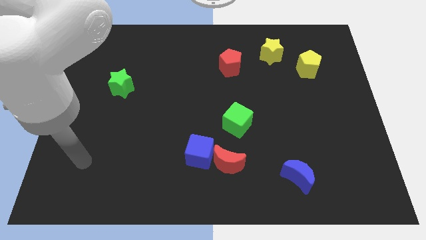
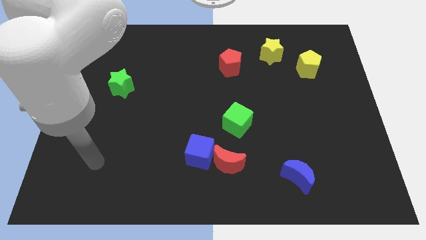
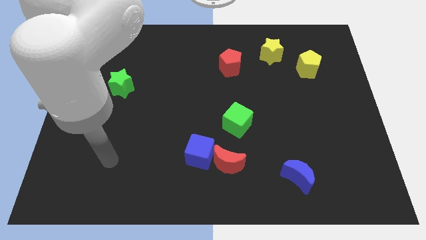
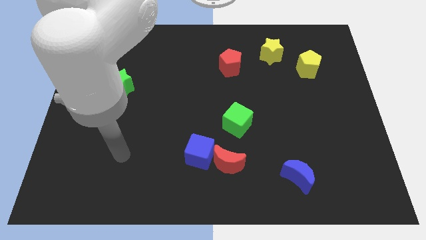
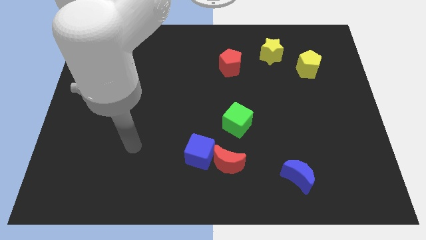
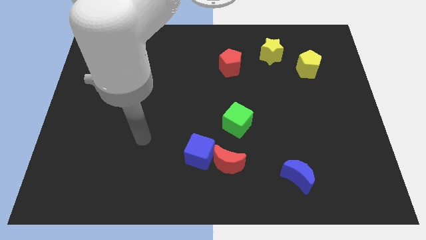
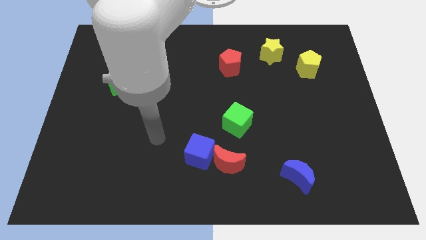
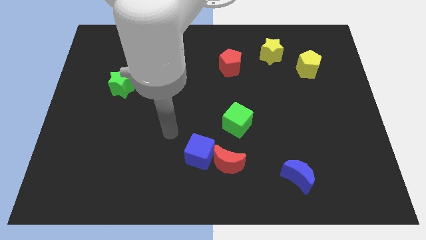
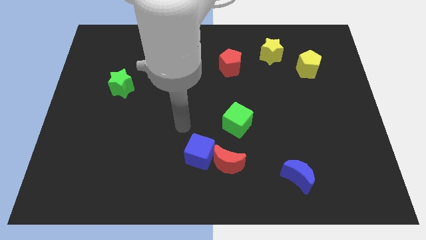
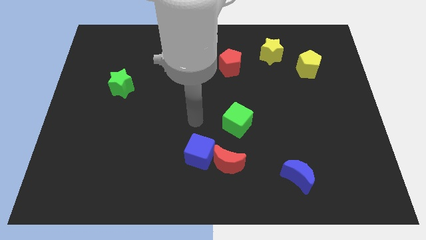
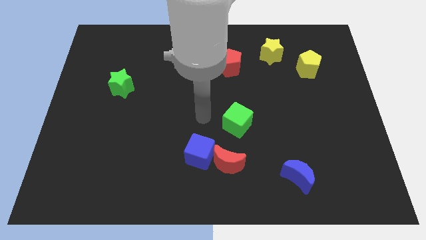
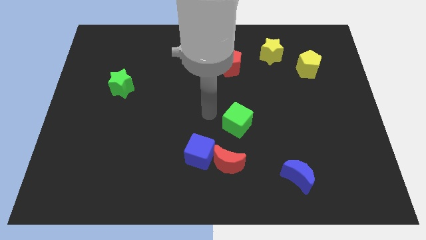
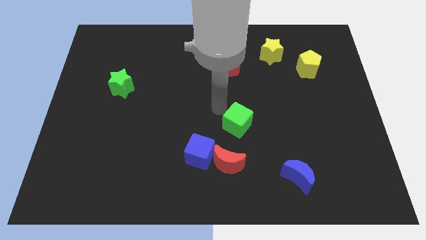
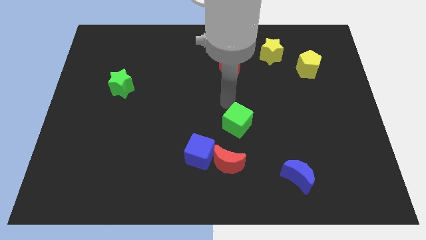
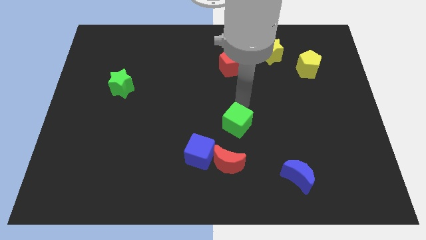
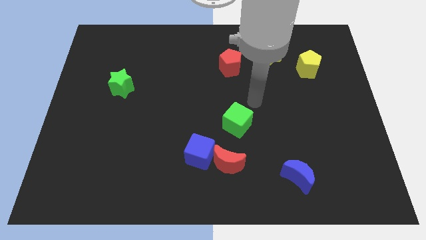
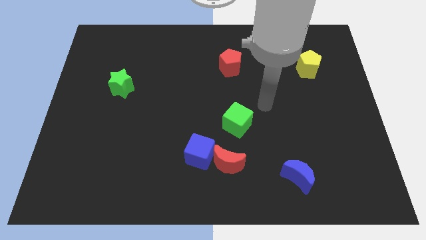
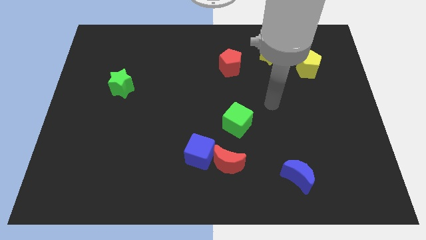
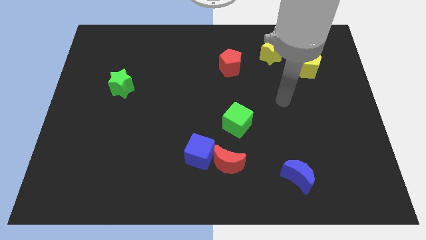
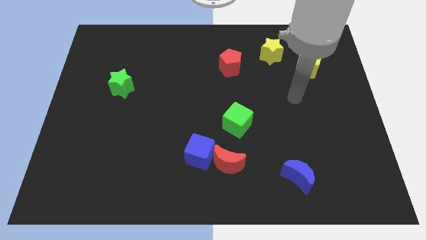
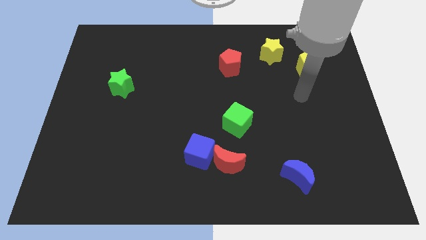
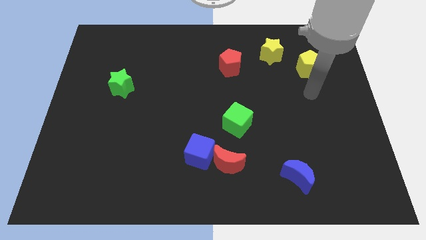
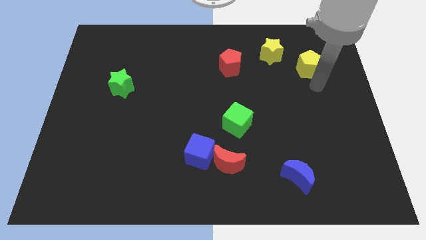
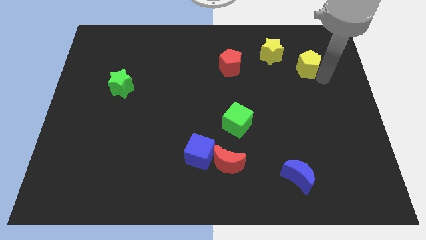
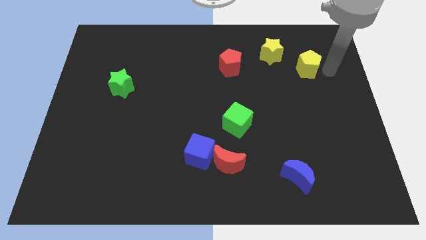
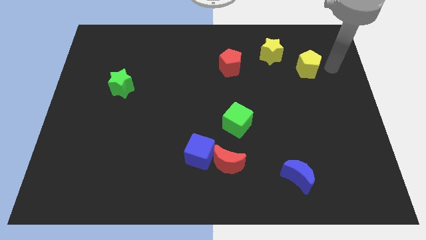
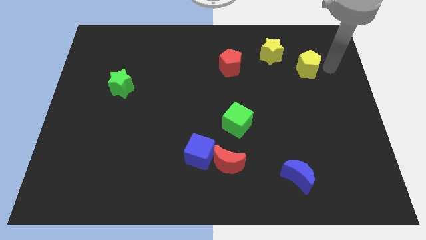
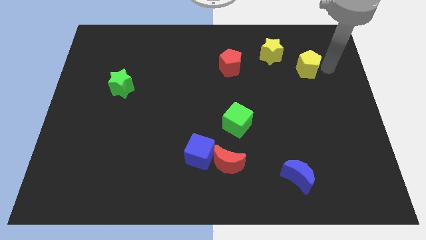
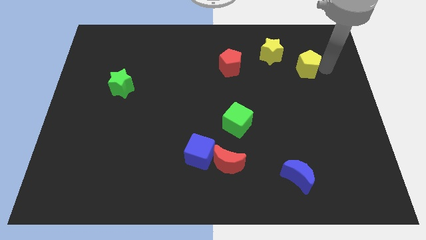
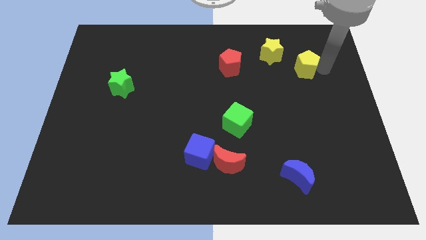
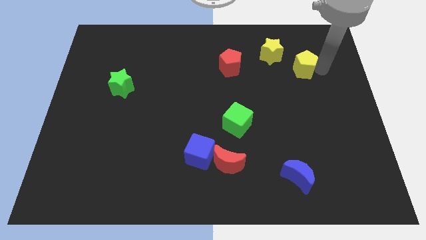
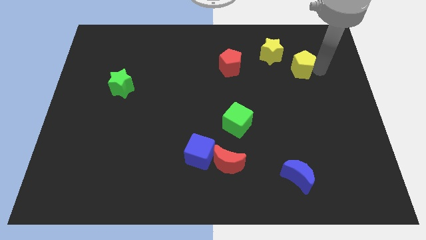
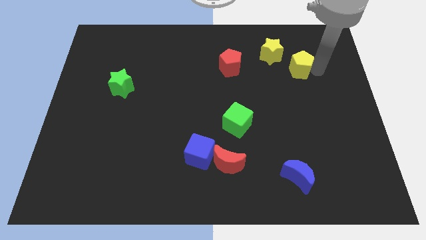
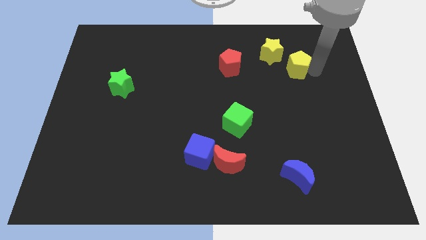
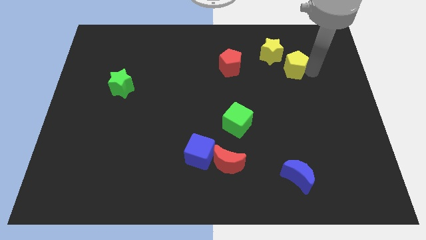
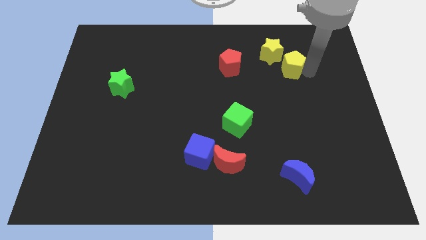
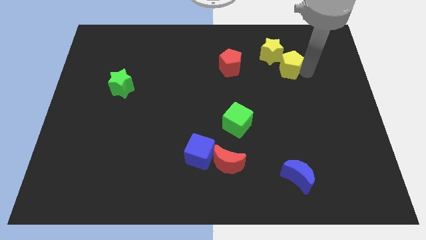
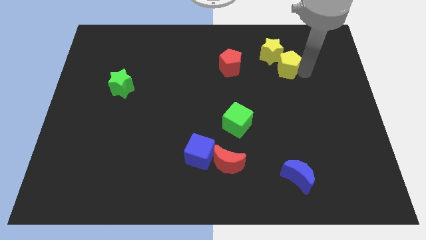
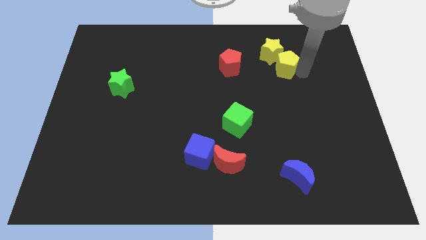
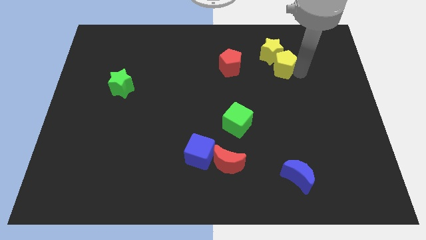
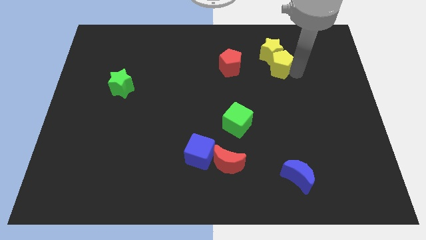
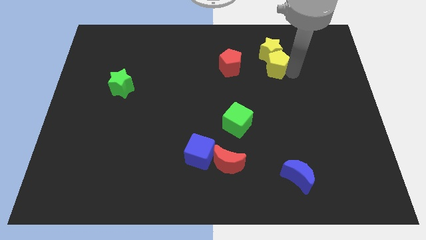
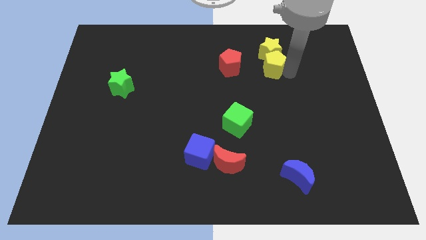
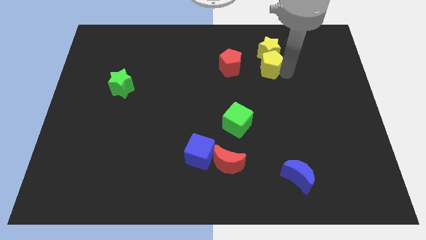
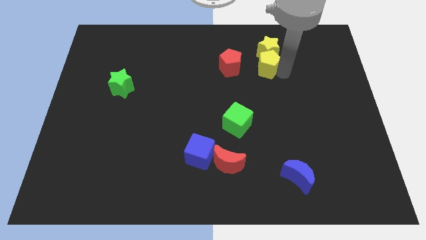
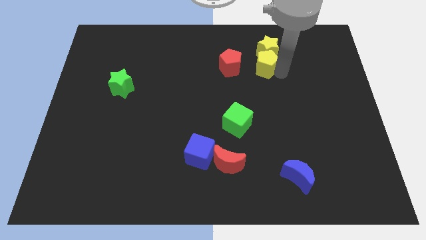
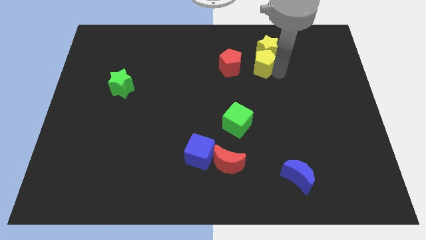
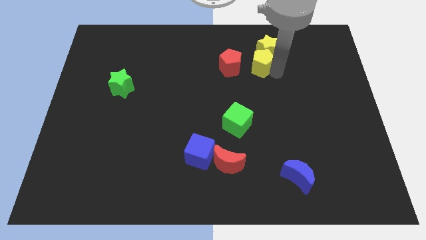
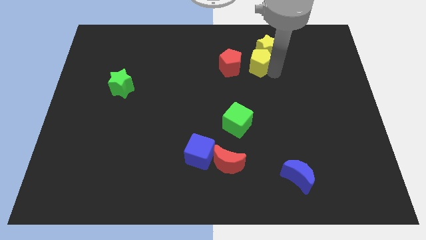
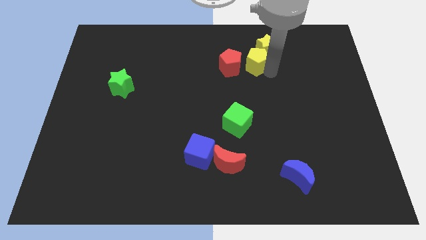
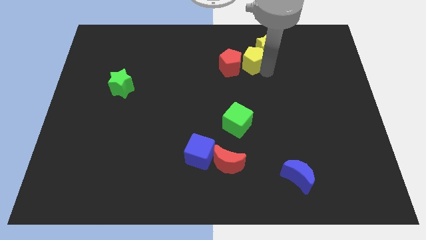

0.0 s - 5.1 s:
move the yellow pentagon left of the yellow star

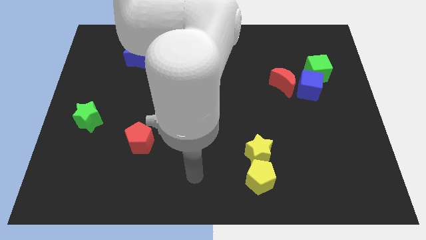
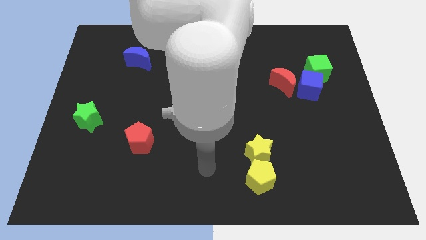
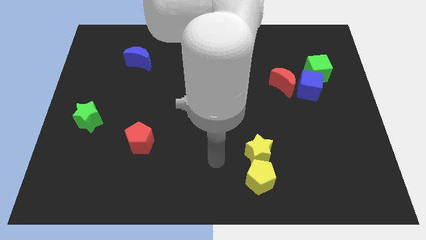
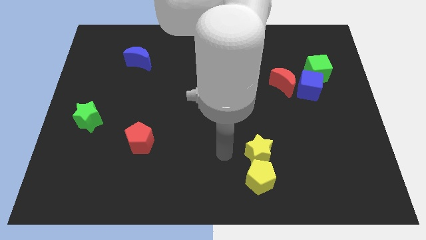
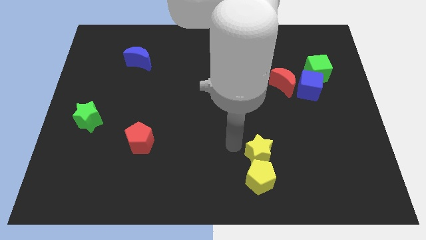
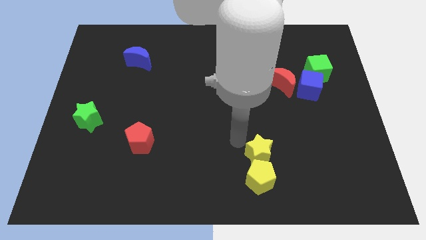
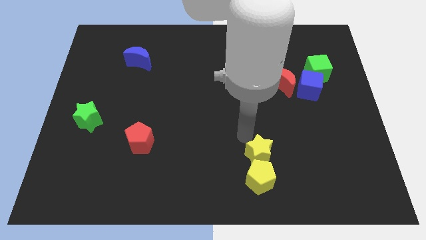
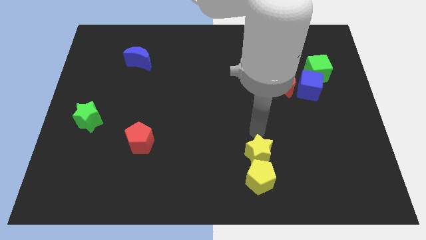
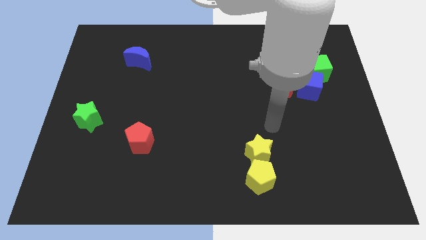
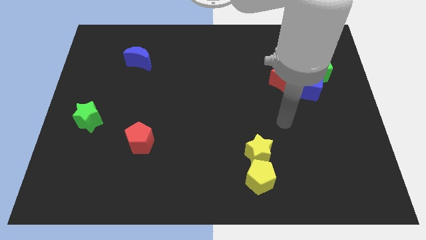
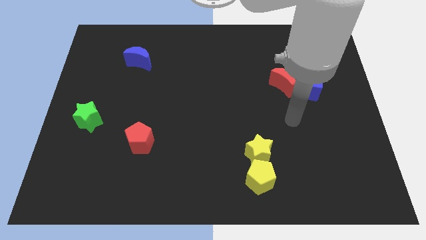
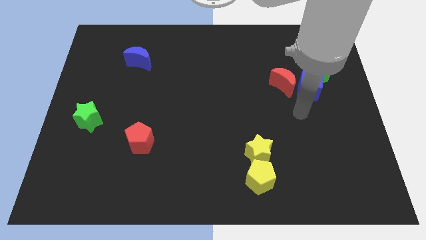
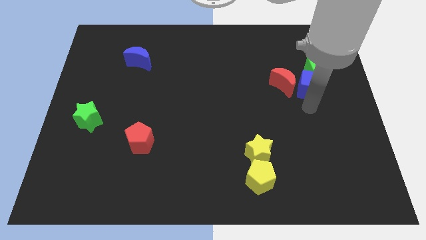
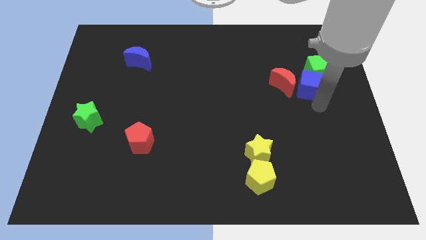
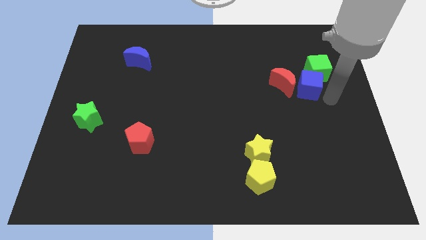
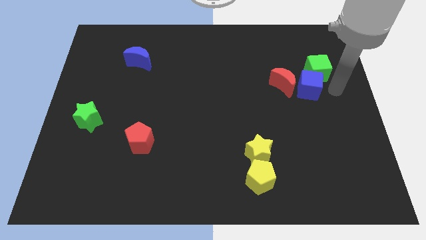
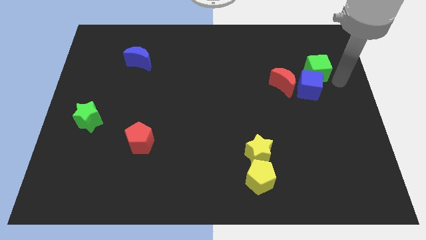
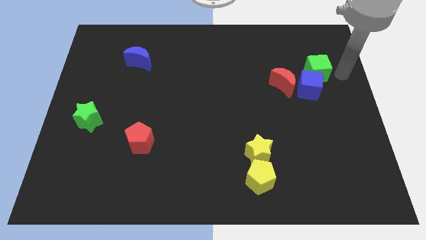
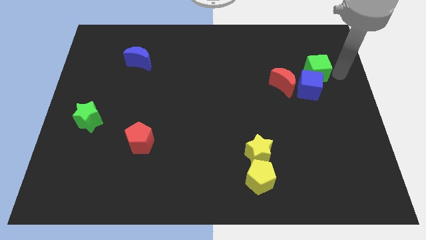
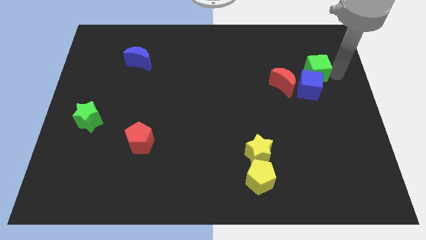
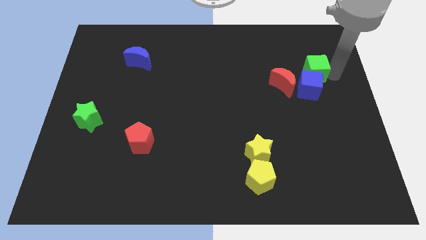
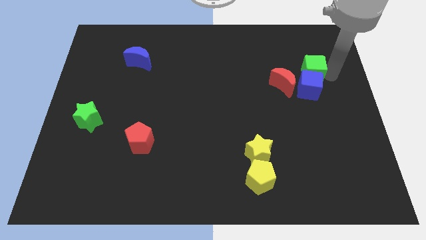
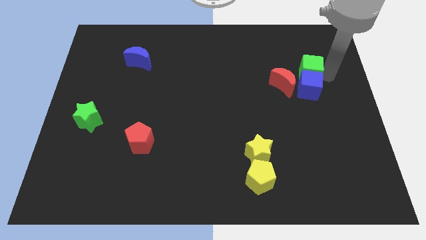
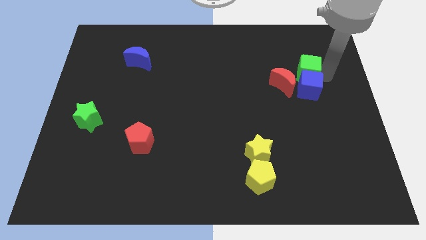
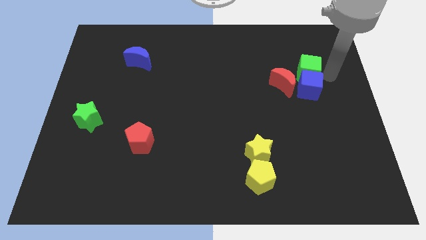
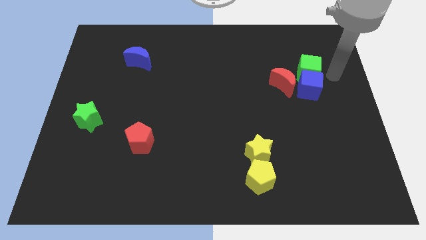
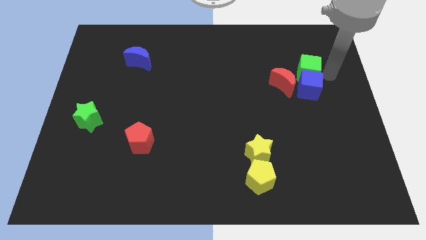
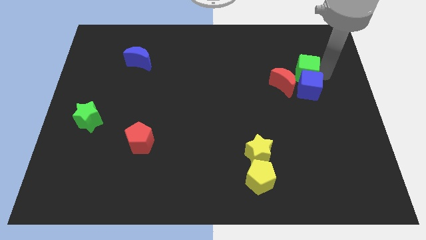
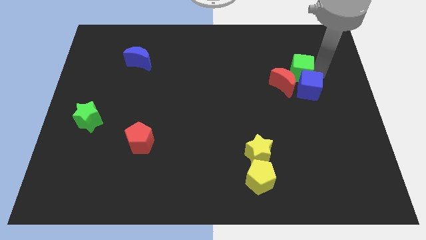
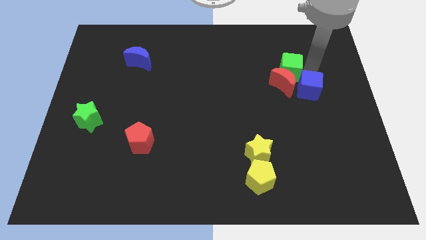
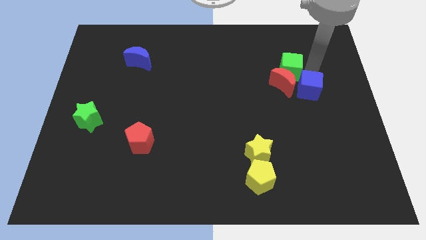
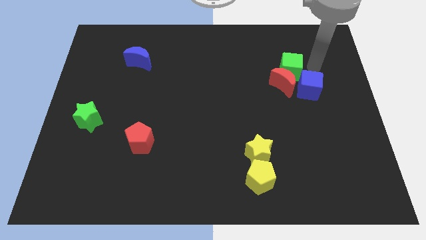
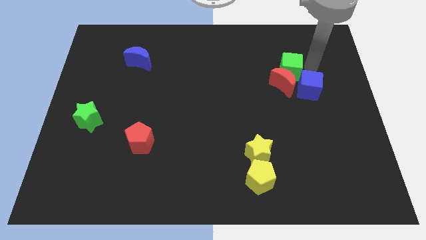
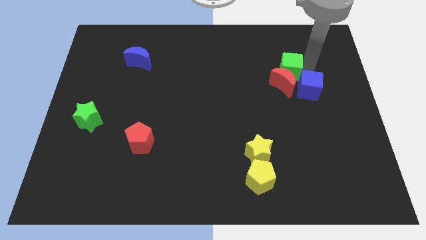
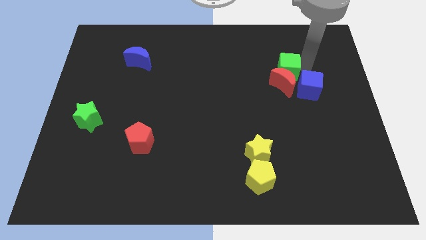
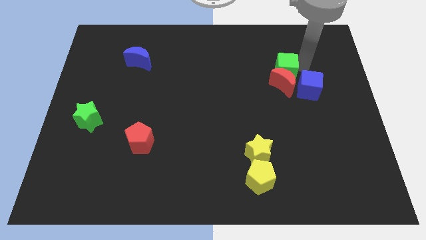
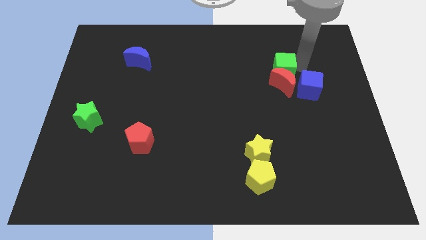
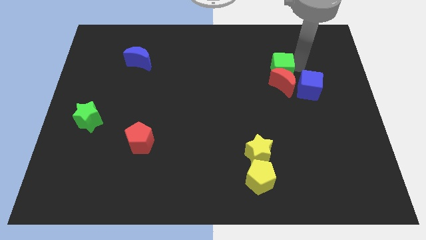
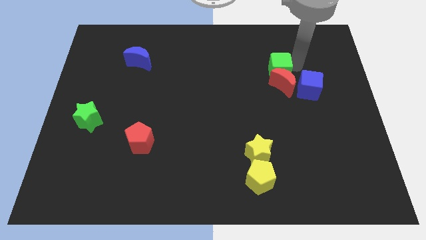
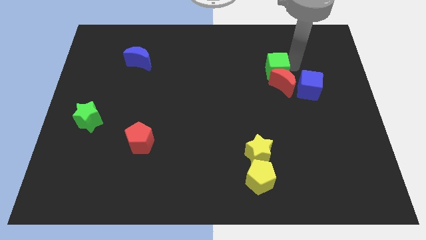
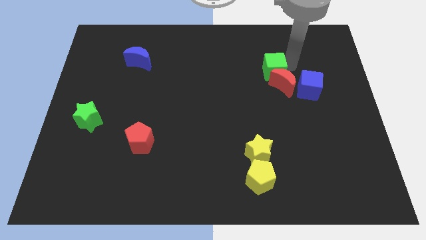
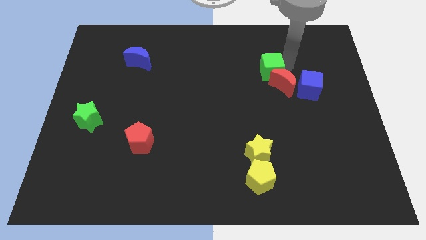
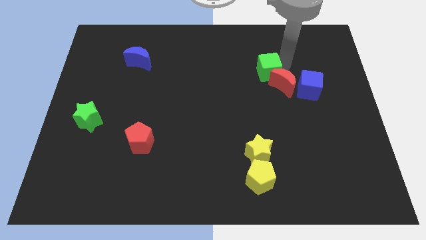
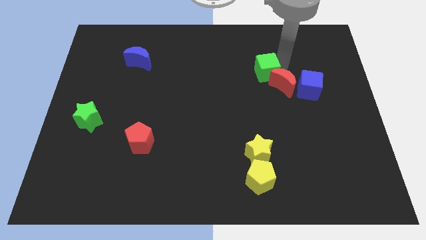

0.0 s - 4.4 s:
slide the green cube left of the red moon
